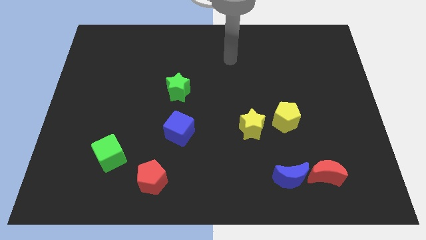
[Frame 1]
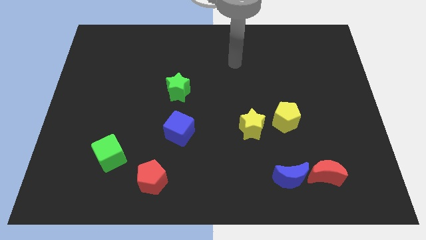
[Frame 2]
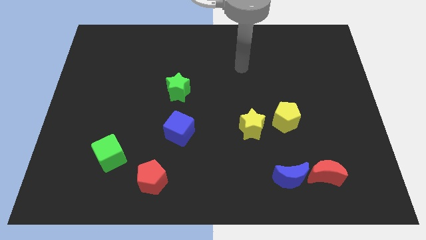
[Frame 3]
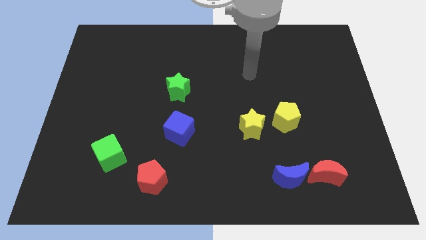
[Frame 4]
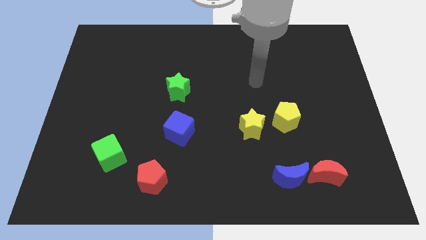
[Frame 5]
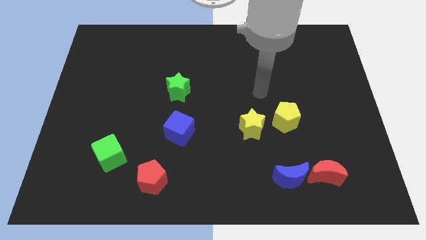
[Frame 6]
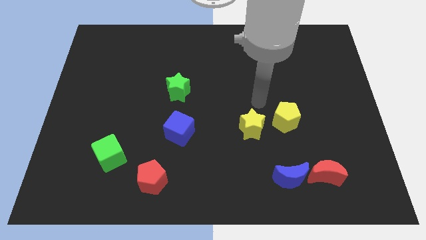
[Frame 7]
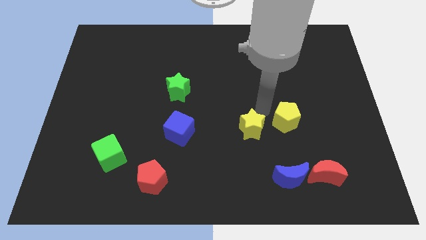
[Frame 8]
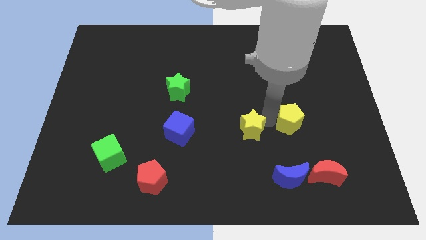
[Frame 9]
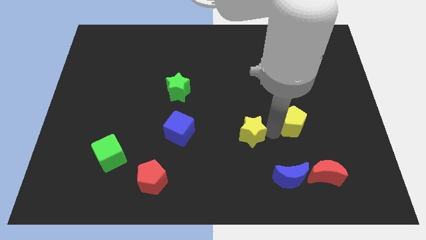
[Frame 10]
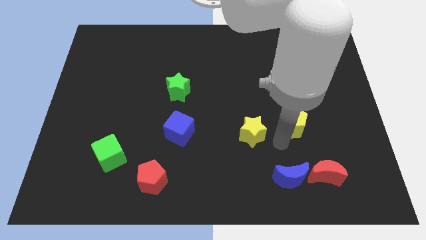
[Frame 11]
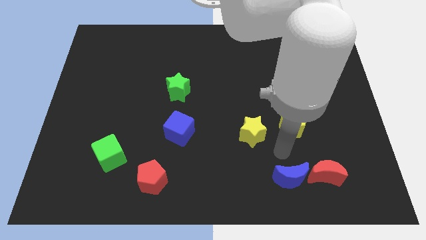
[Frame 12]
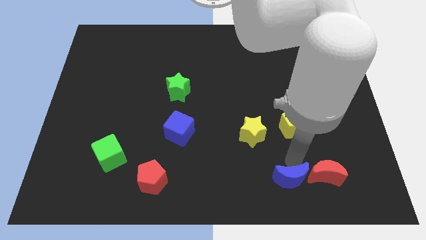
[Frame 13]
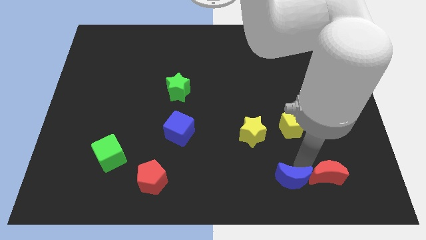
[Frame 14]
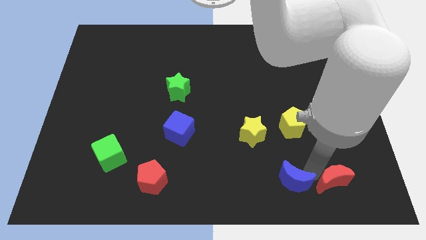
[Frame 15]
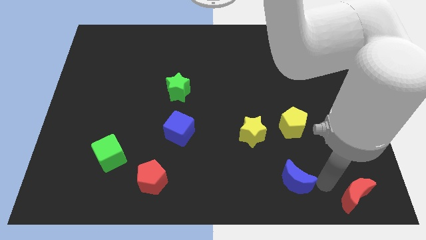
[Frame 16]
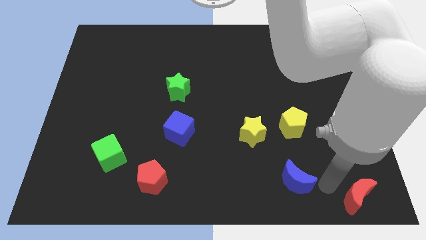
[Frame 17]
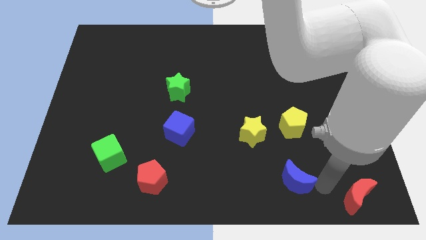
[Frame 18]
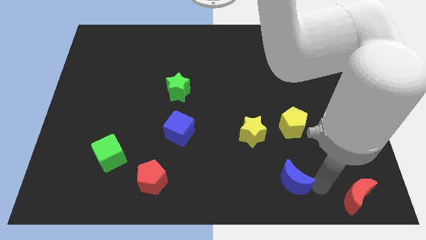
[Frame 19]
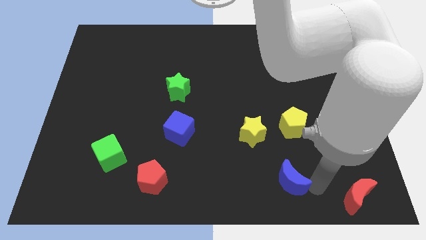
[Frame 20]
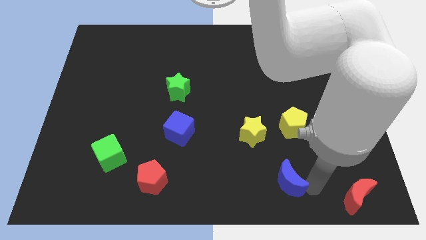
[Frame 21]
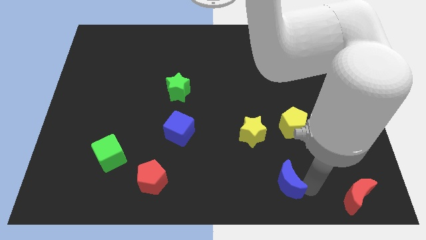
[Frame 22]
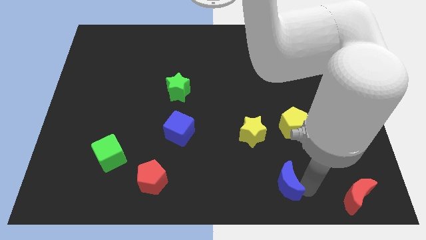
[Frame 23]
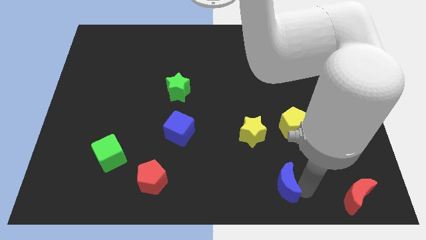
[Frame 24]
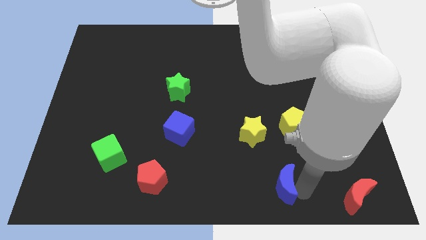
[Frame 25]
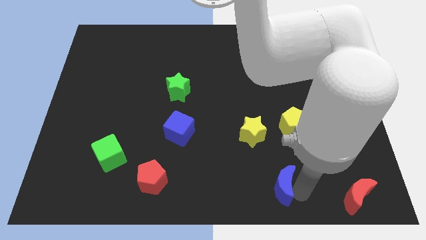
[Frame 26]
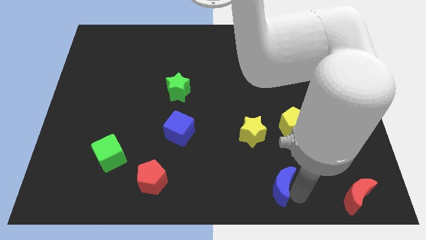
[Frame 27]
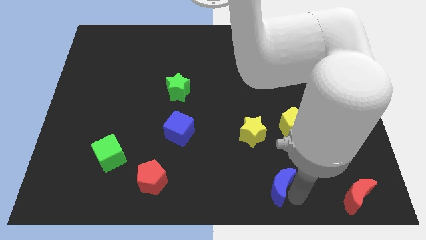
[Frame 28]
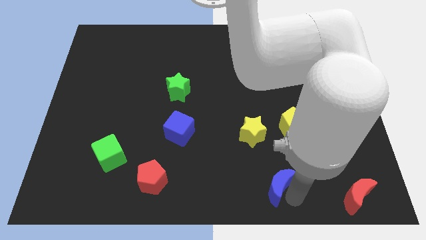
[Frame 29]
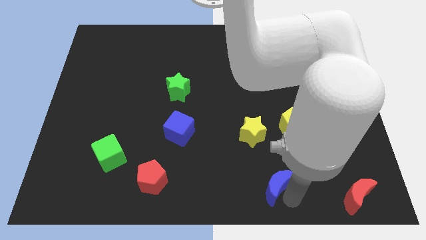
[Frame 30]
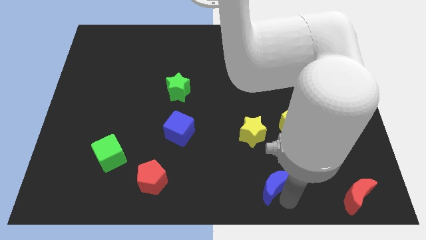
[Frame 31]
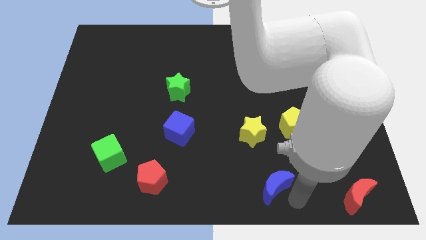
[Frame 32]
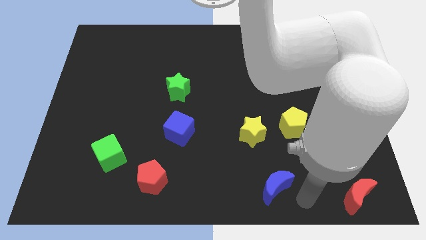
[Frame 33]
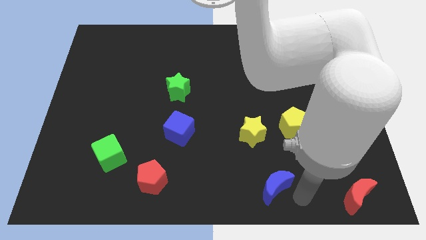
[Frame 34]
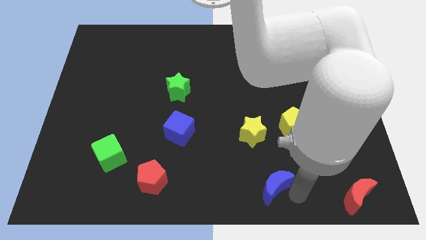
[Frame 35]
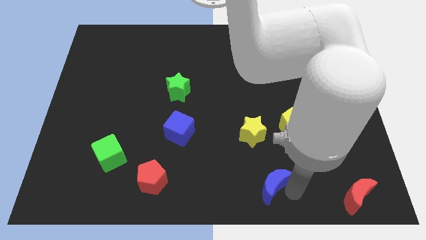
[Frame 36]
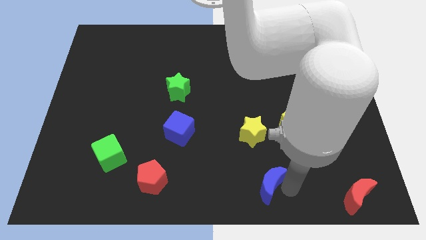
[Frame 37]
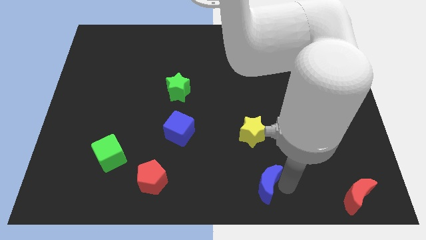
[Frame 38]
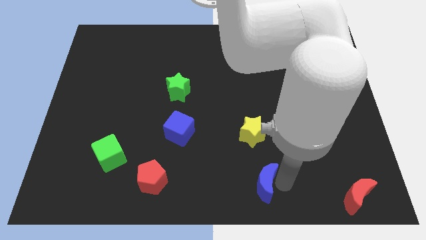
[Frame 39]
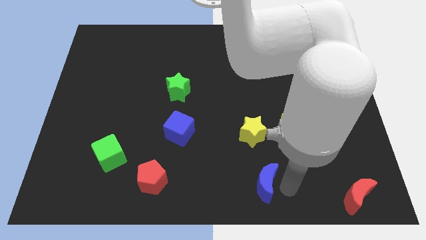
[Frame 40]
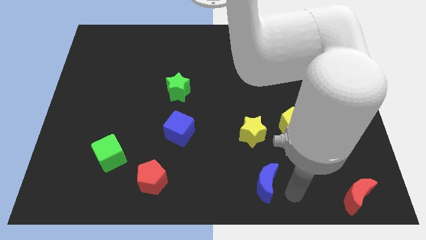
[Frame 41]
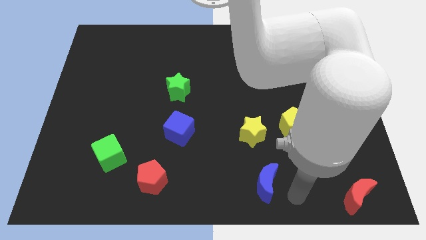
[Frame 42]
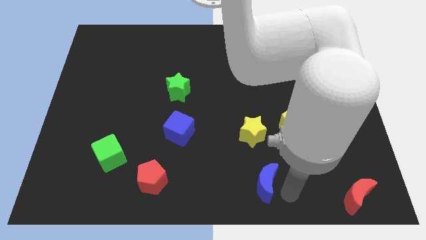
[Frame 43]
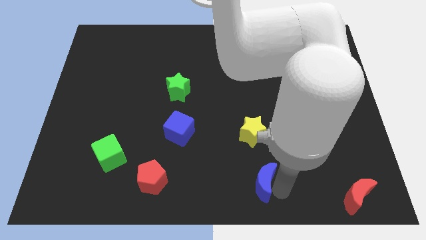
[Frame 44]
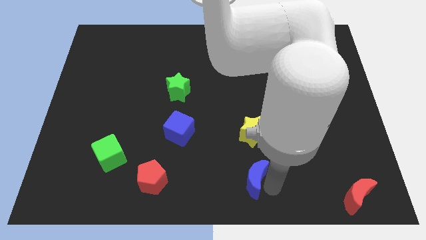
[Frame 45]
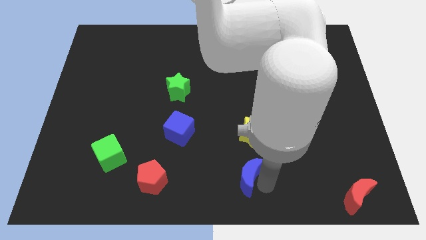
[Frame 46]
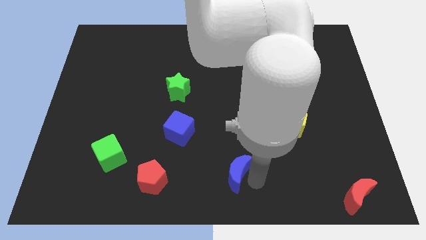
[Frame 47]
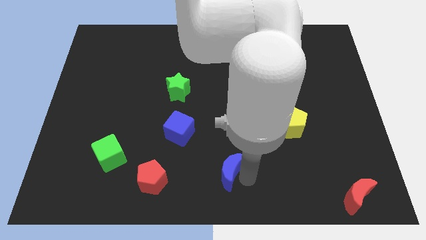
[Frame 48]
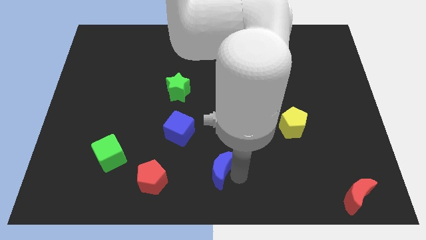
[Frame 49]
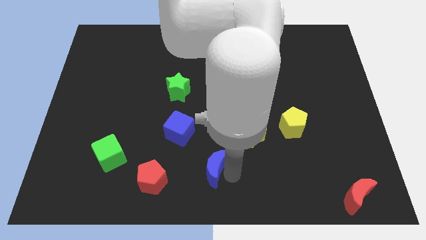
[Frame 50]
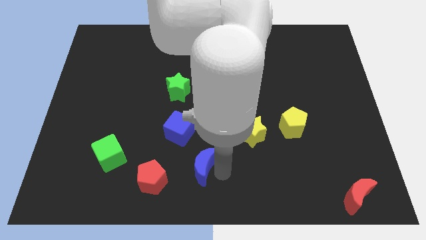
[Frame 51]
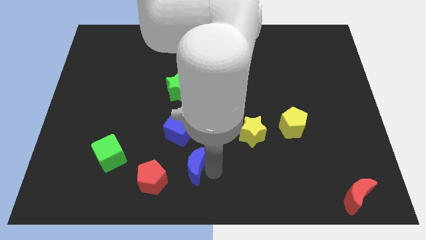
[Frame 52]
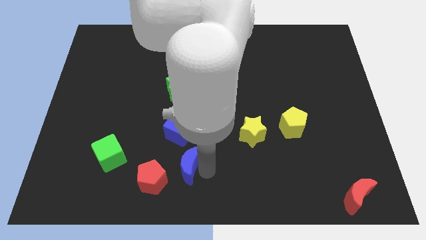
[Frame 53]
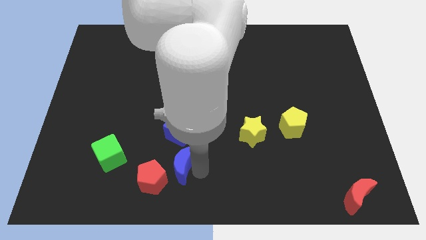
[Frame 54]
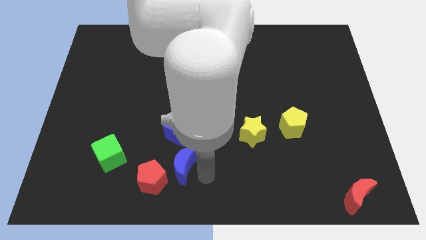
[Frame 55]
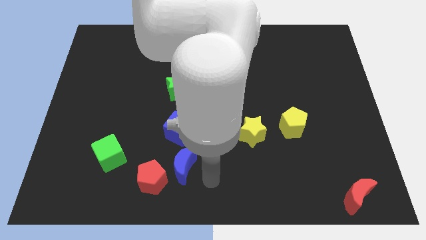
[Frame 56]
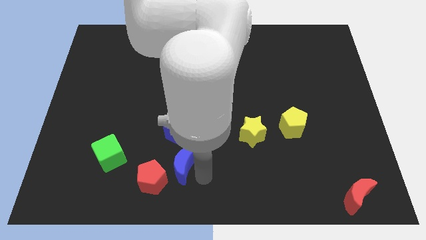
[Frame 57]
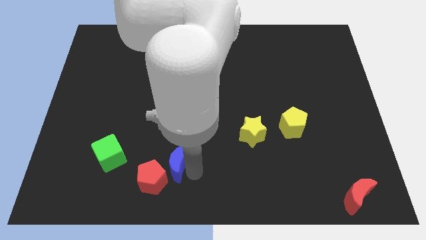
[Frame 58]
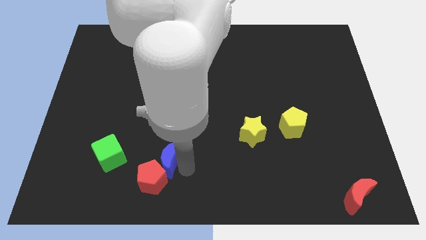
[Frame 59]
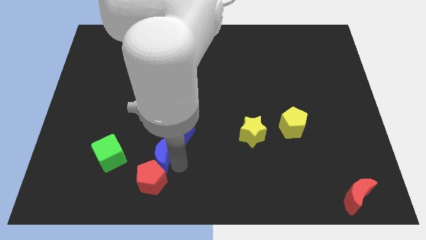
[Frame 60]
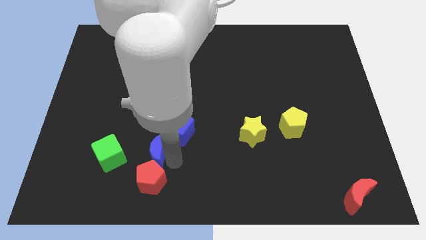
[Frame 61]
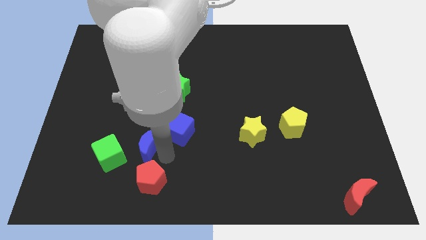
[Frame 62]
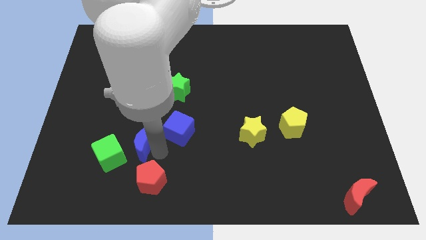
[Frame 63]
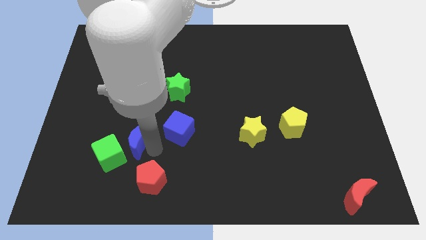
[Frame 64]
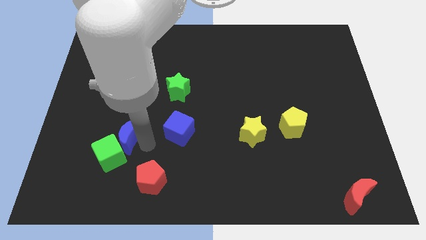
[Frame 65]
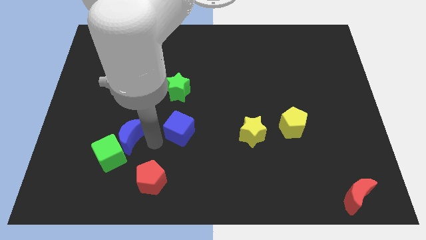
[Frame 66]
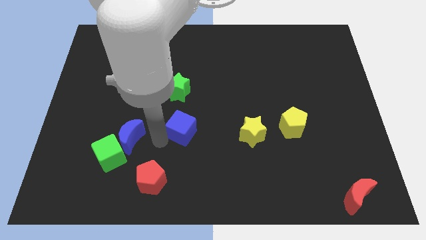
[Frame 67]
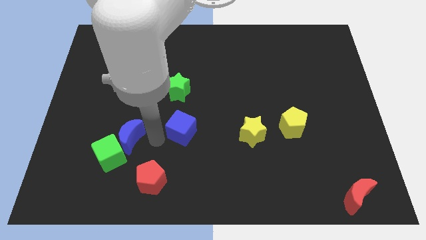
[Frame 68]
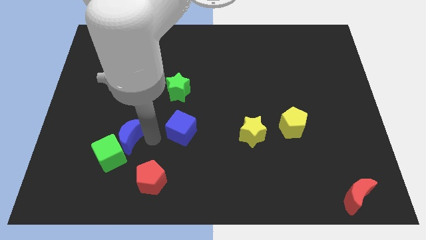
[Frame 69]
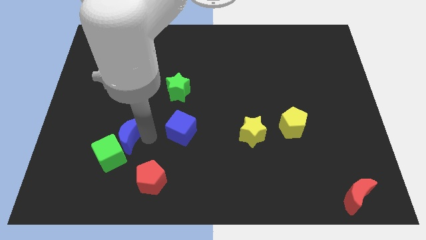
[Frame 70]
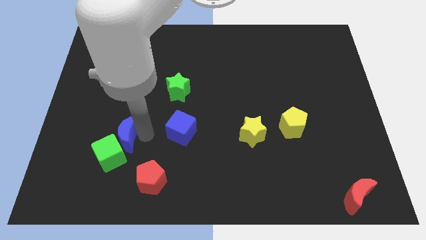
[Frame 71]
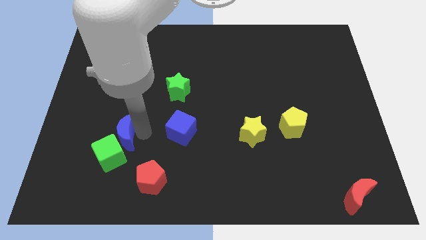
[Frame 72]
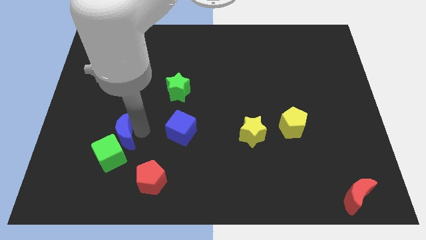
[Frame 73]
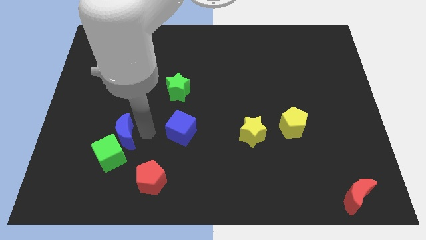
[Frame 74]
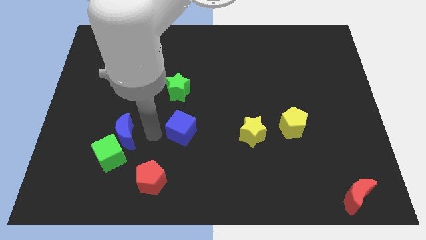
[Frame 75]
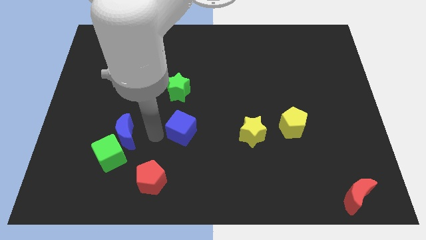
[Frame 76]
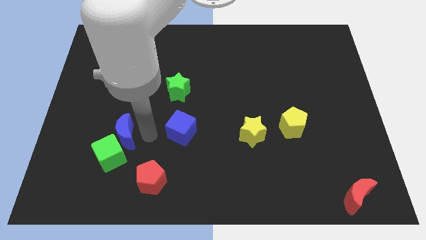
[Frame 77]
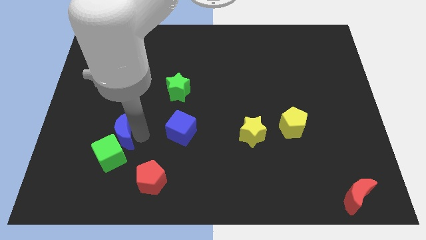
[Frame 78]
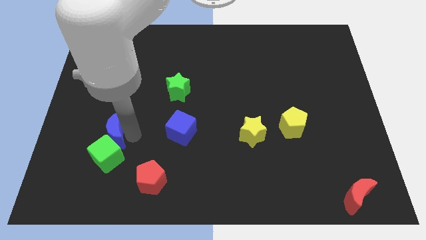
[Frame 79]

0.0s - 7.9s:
move the blue moon to the top left of the green cube
